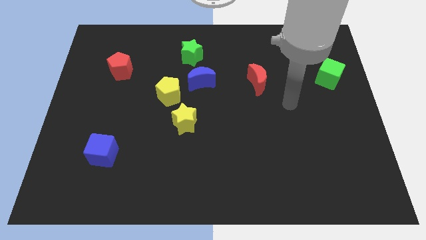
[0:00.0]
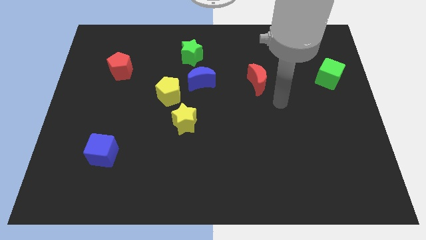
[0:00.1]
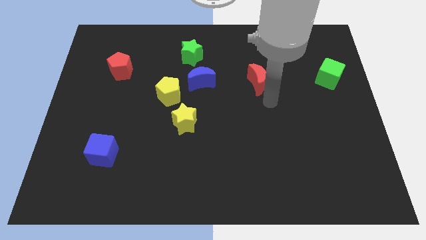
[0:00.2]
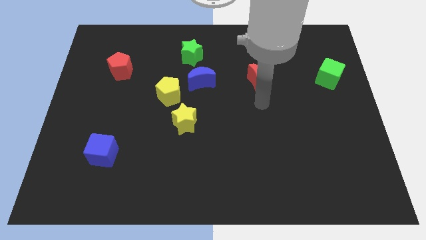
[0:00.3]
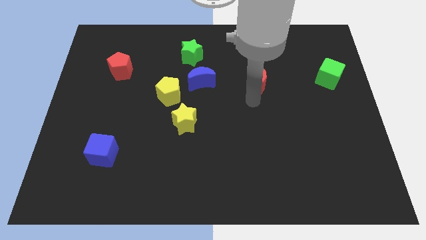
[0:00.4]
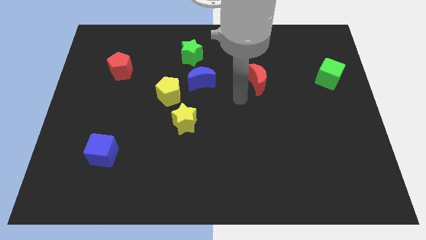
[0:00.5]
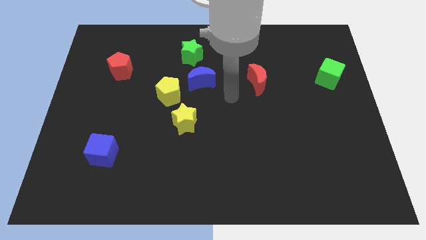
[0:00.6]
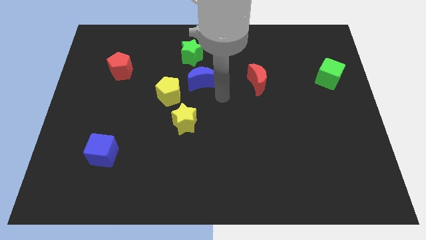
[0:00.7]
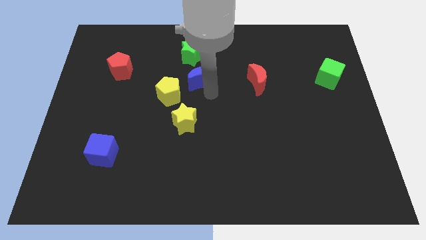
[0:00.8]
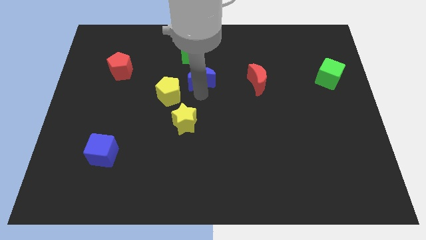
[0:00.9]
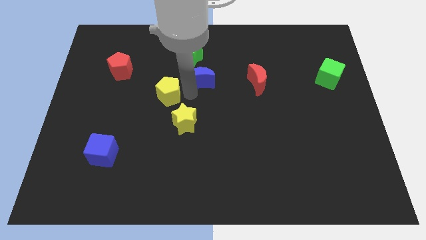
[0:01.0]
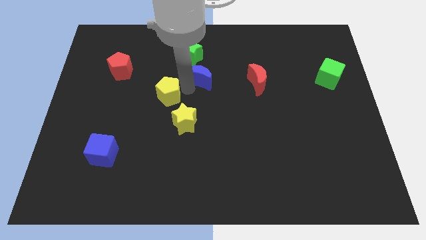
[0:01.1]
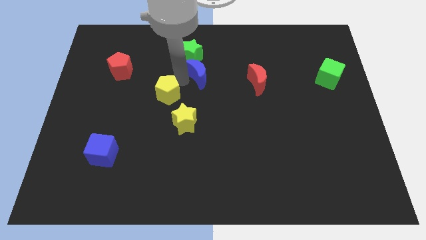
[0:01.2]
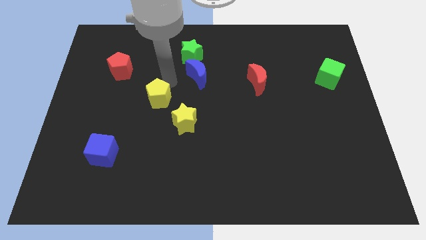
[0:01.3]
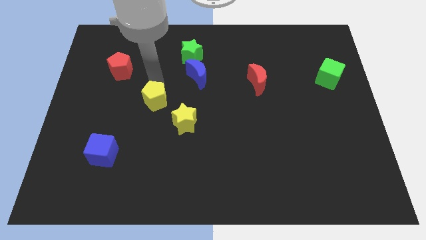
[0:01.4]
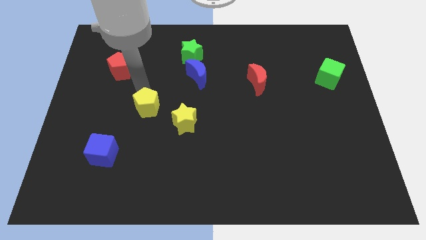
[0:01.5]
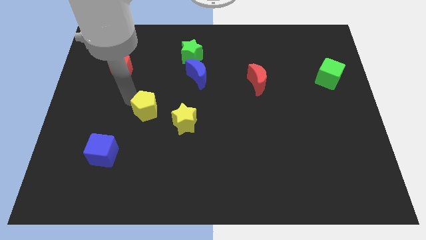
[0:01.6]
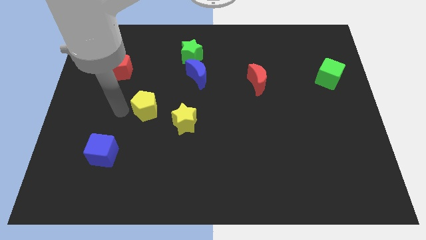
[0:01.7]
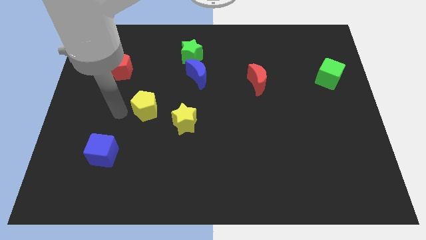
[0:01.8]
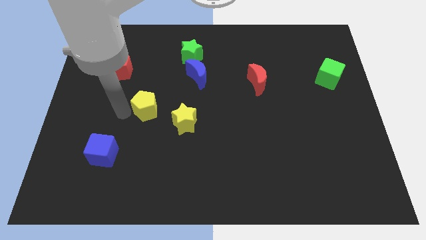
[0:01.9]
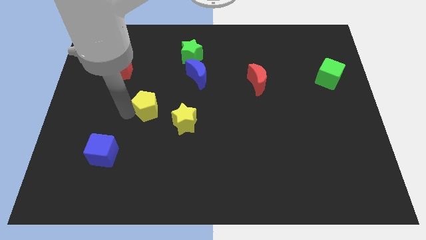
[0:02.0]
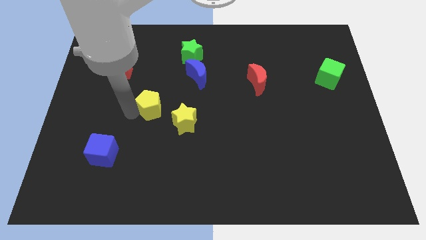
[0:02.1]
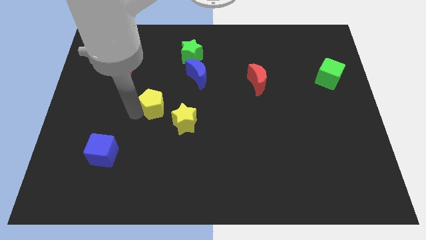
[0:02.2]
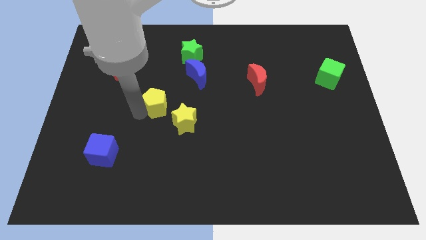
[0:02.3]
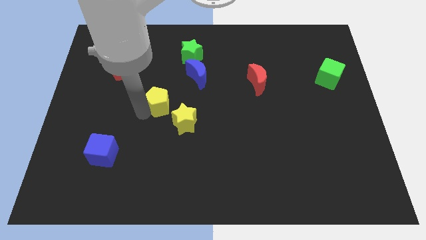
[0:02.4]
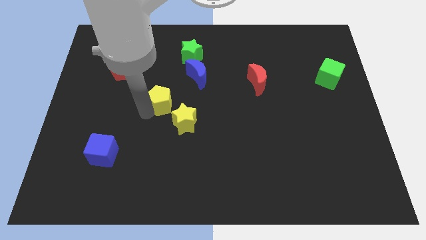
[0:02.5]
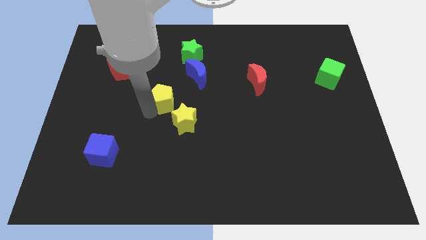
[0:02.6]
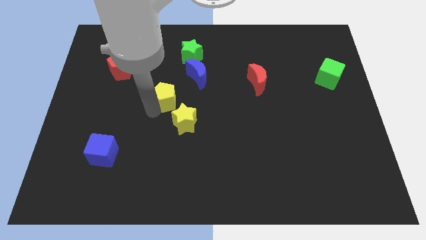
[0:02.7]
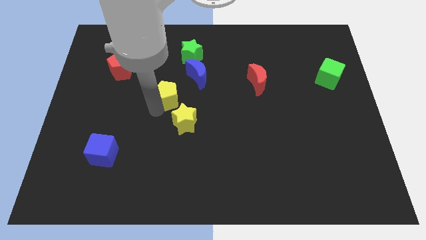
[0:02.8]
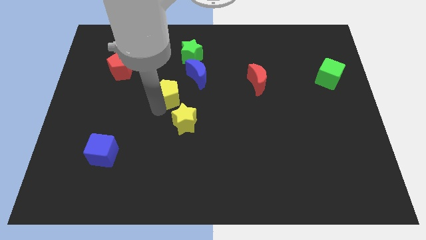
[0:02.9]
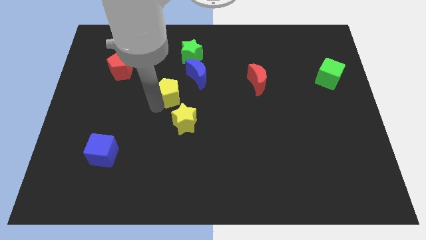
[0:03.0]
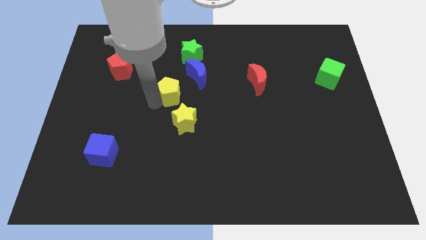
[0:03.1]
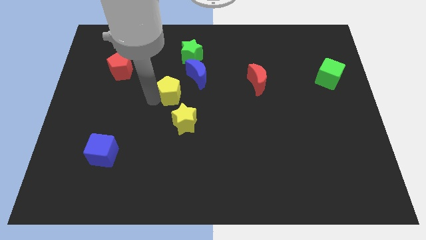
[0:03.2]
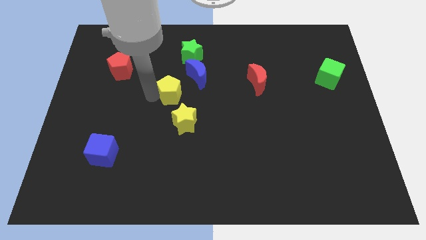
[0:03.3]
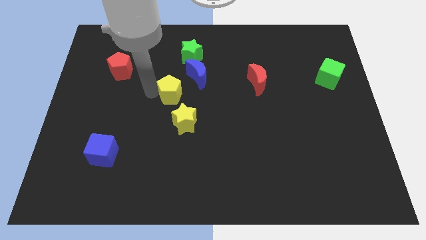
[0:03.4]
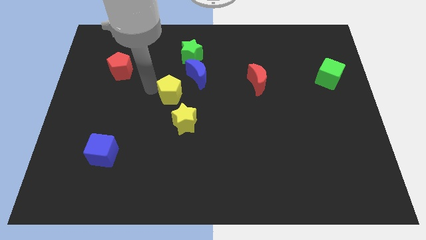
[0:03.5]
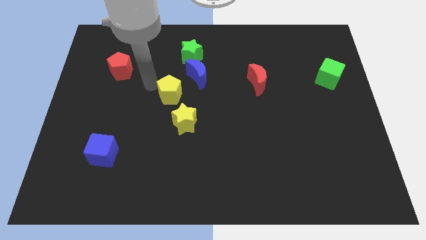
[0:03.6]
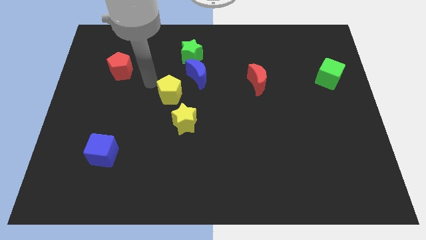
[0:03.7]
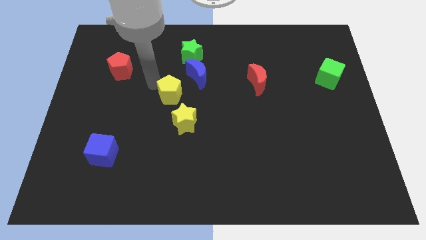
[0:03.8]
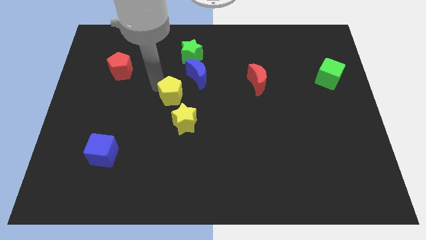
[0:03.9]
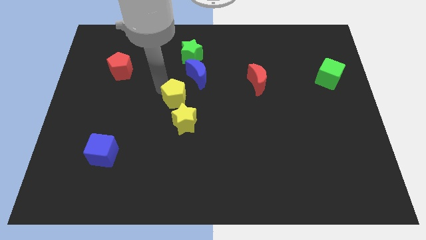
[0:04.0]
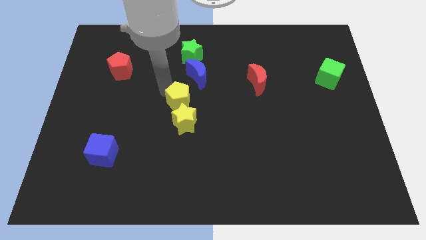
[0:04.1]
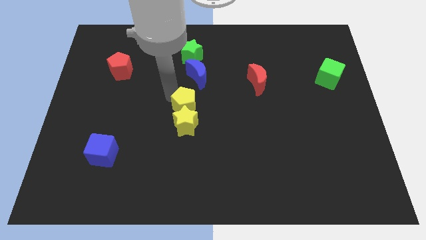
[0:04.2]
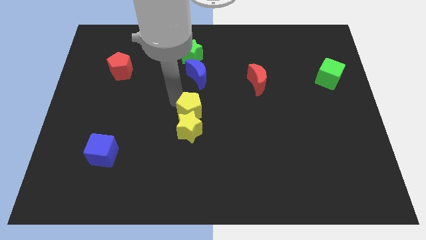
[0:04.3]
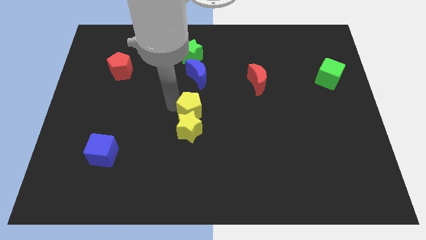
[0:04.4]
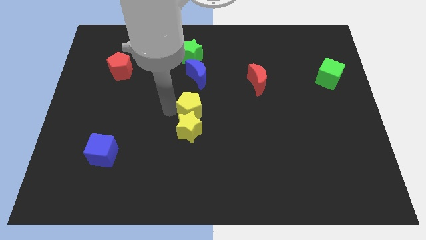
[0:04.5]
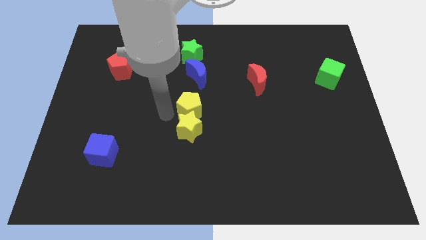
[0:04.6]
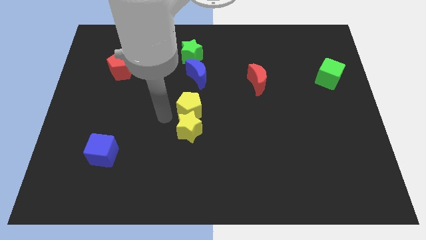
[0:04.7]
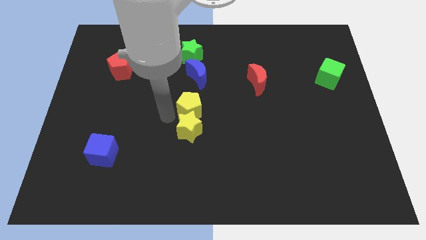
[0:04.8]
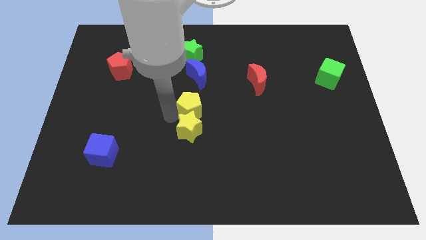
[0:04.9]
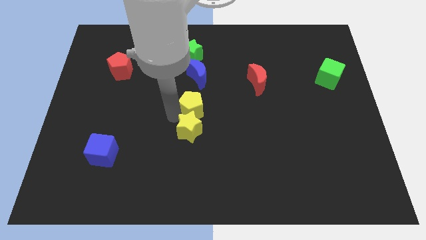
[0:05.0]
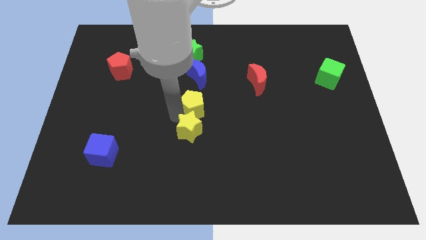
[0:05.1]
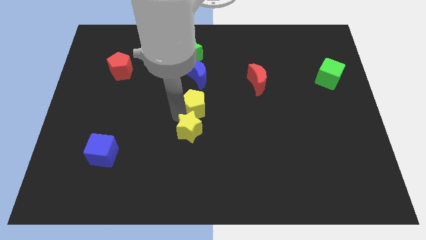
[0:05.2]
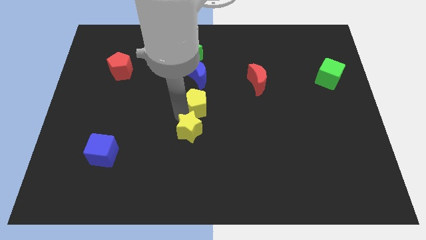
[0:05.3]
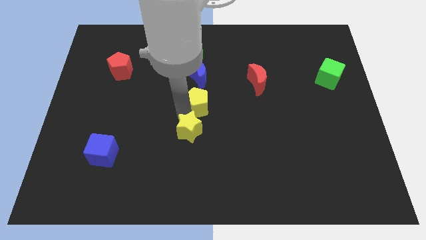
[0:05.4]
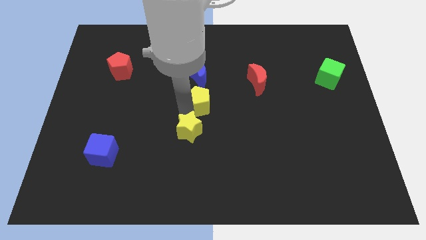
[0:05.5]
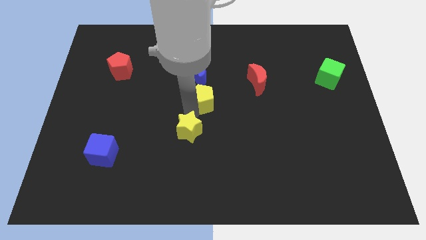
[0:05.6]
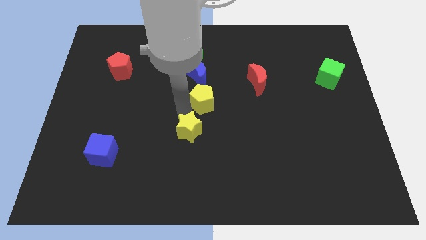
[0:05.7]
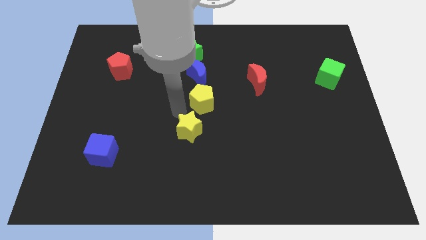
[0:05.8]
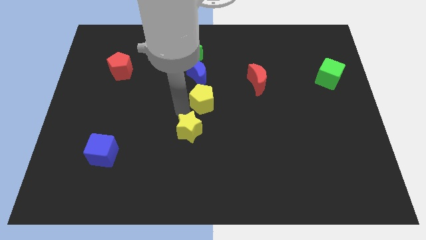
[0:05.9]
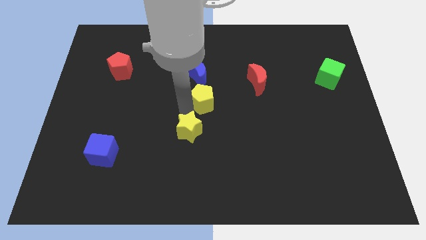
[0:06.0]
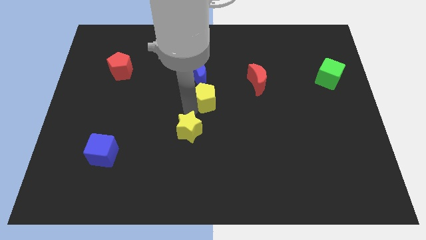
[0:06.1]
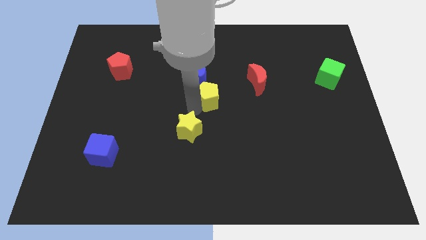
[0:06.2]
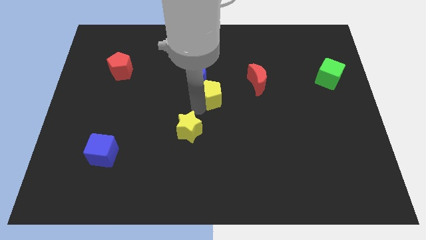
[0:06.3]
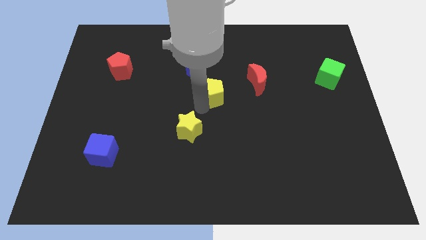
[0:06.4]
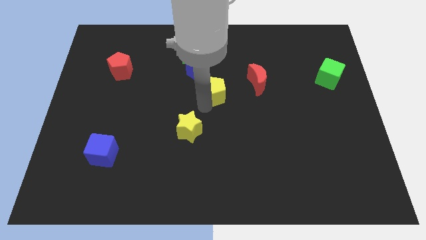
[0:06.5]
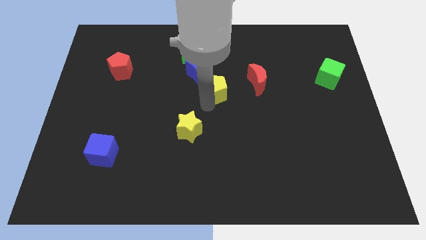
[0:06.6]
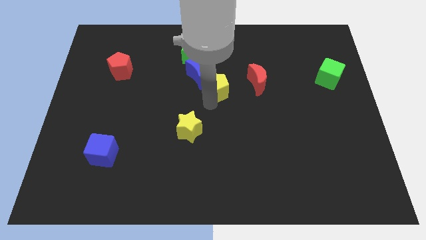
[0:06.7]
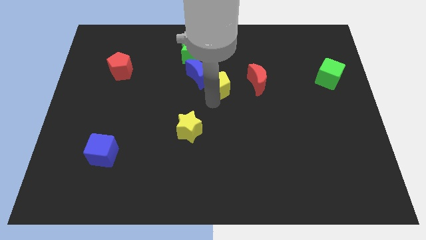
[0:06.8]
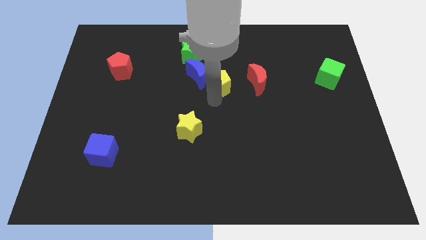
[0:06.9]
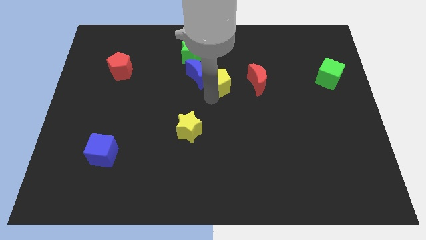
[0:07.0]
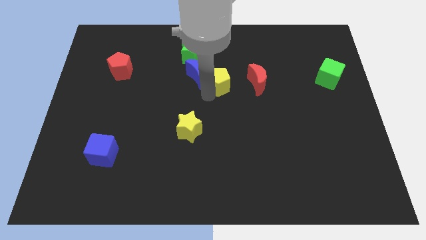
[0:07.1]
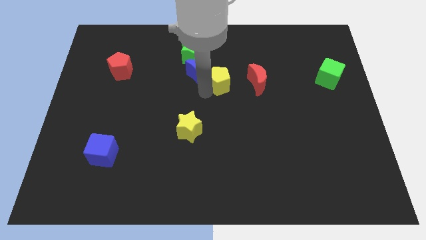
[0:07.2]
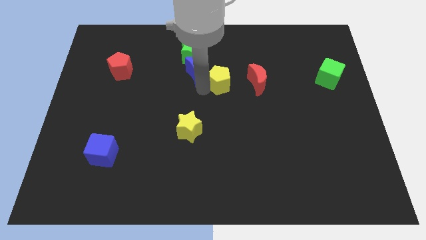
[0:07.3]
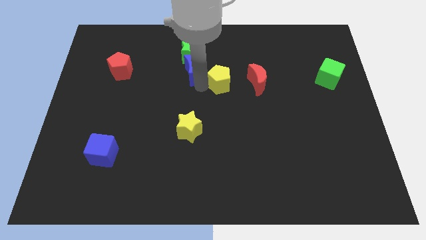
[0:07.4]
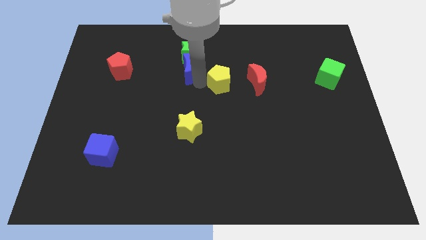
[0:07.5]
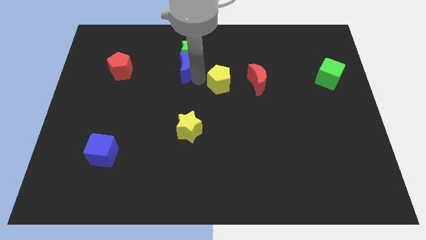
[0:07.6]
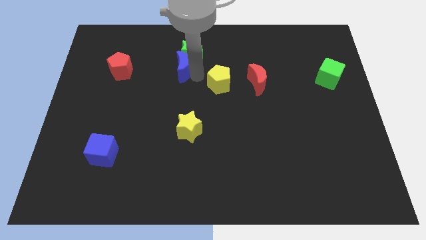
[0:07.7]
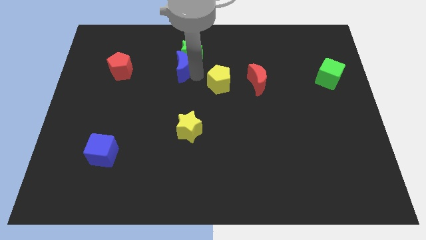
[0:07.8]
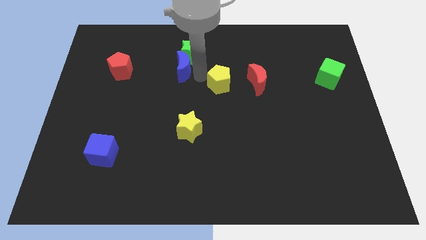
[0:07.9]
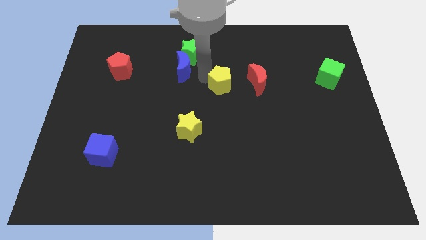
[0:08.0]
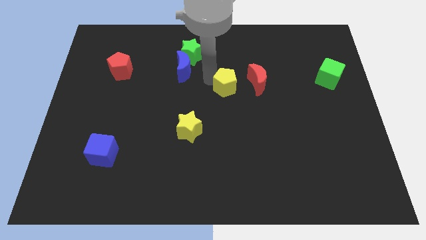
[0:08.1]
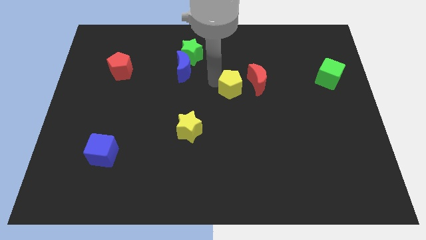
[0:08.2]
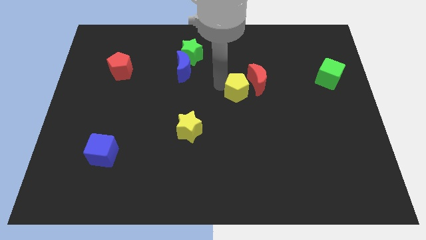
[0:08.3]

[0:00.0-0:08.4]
push the yellow pentagon towards the red moon
